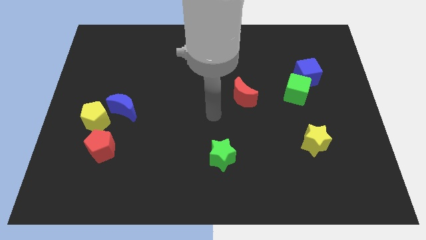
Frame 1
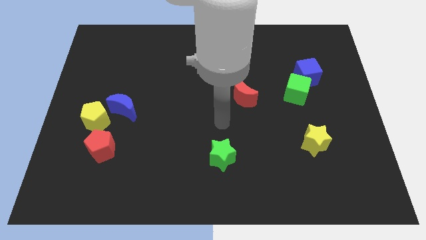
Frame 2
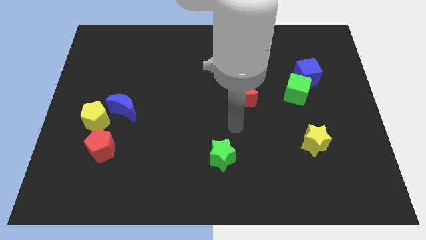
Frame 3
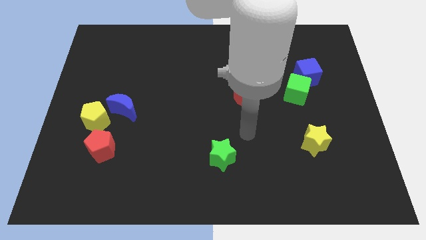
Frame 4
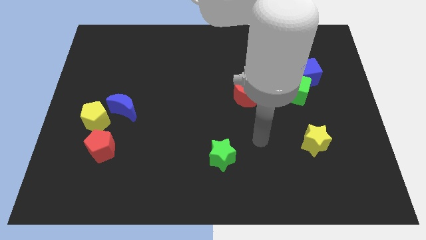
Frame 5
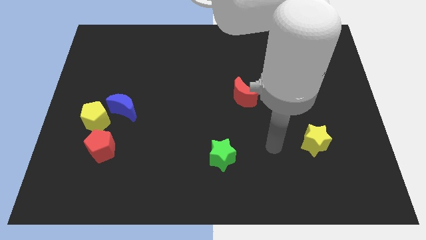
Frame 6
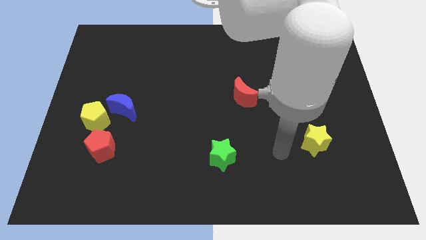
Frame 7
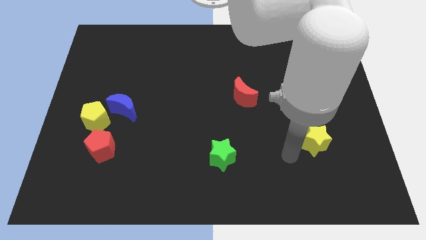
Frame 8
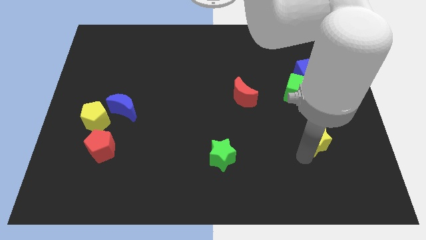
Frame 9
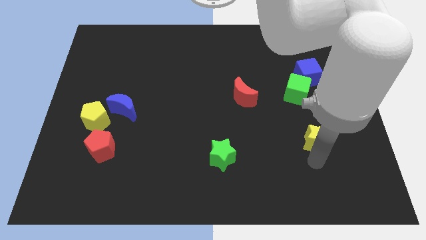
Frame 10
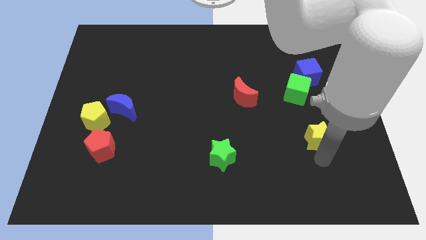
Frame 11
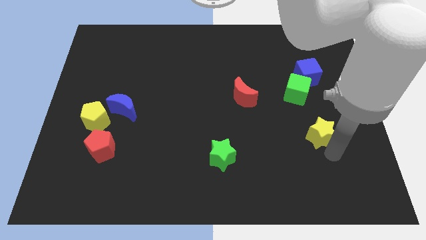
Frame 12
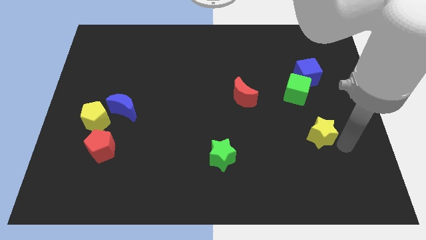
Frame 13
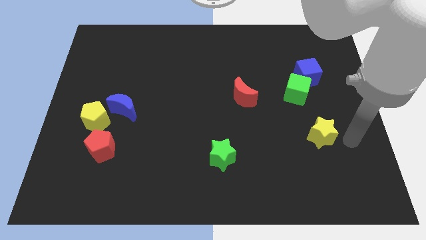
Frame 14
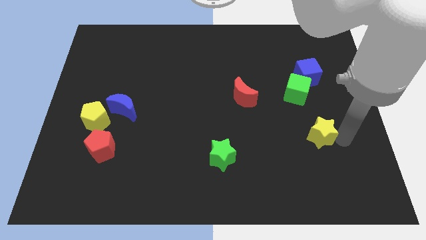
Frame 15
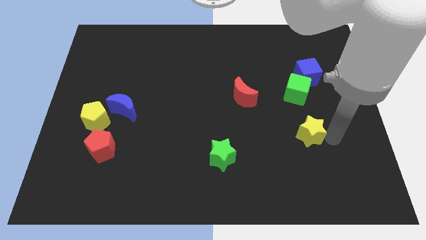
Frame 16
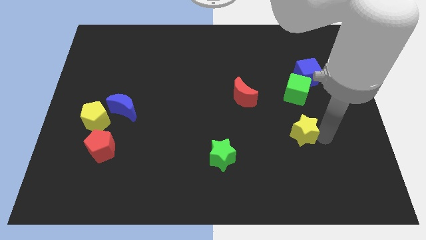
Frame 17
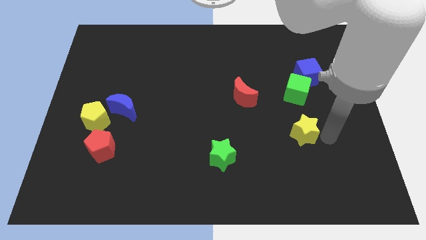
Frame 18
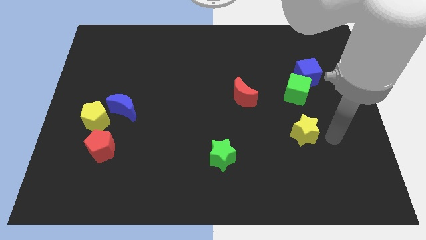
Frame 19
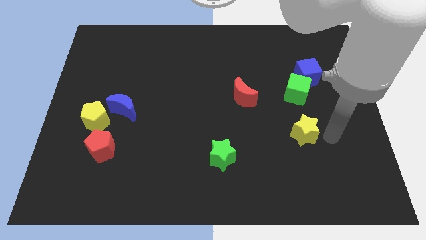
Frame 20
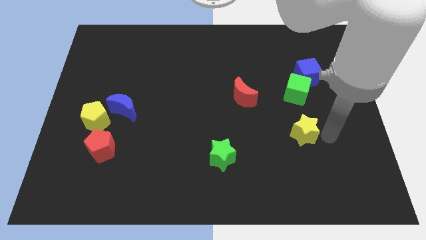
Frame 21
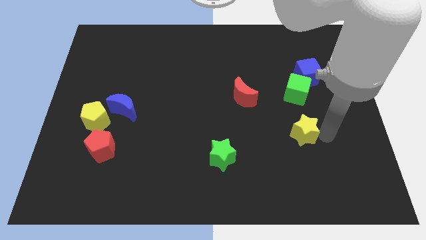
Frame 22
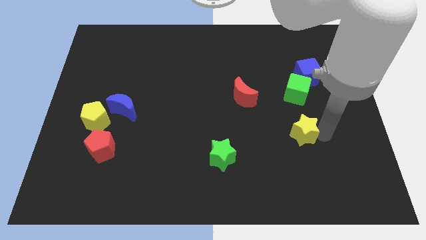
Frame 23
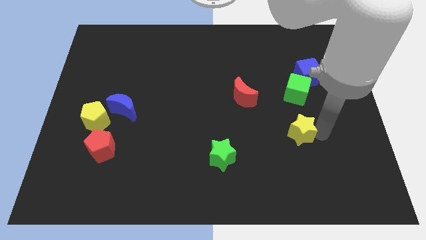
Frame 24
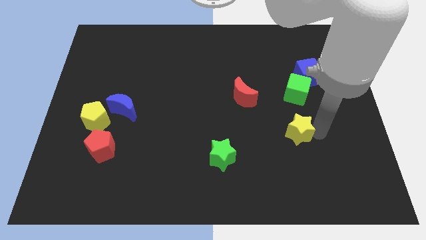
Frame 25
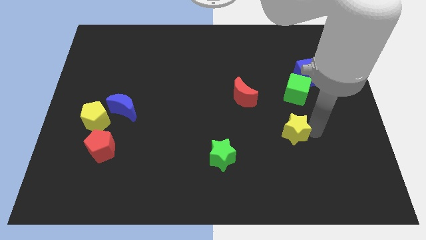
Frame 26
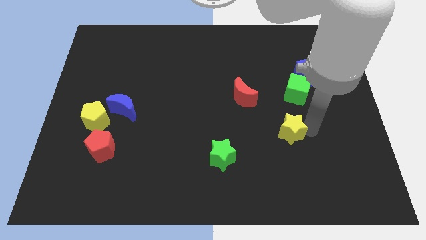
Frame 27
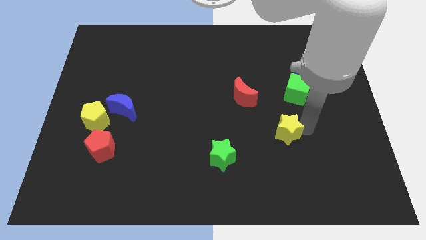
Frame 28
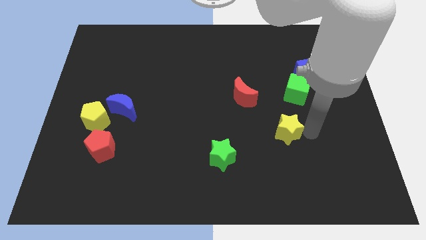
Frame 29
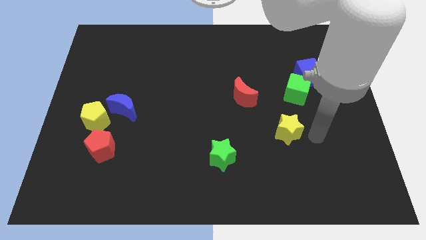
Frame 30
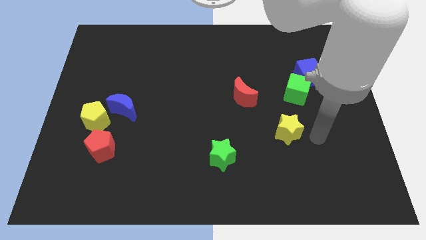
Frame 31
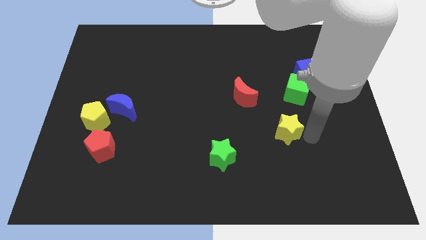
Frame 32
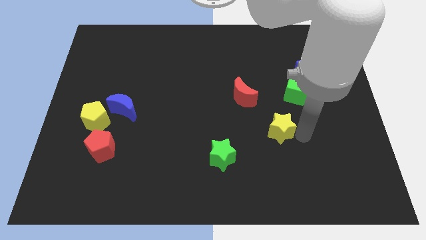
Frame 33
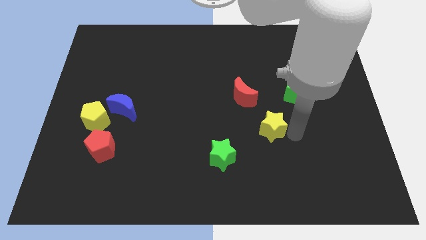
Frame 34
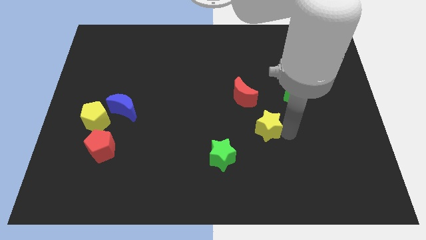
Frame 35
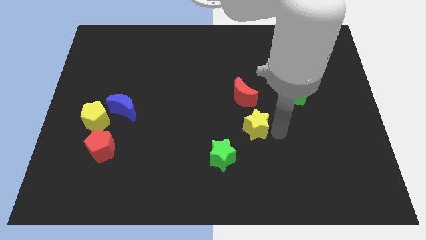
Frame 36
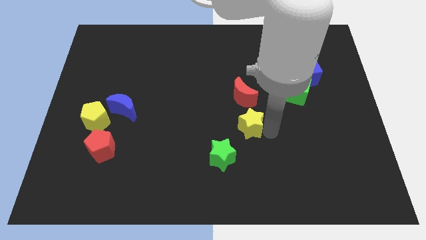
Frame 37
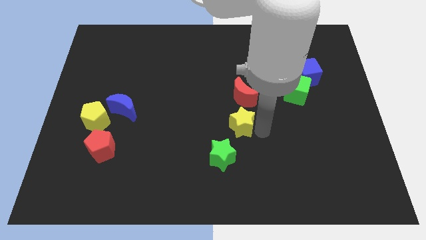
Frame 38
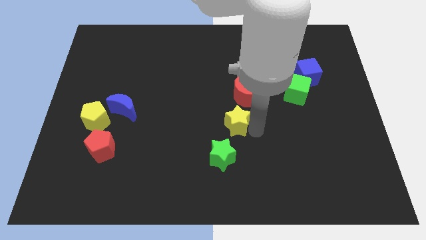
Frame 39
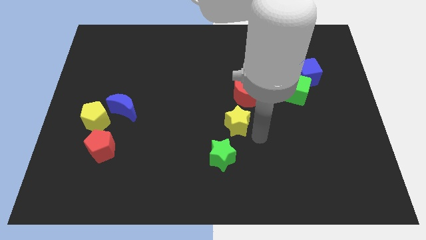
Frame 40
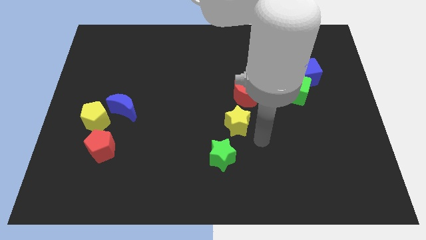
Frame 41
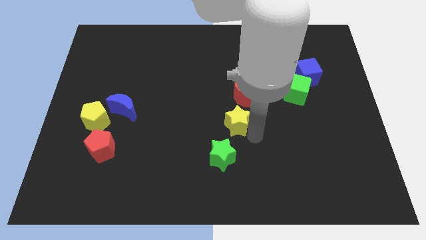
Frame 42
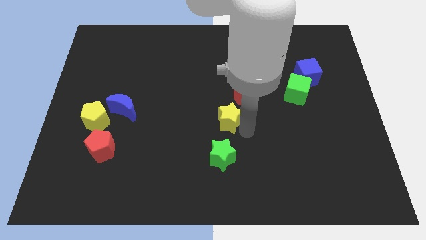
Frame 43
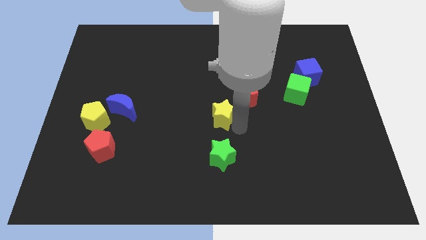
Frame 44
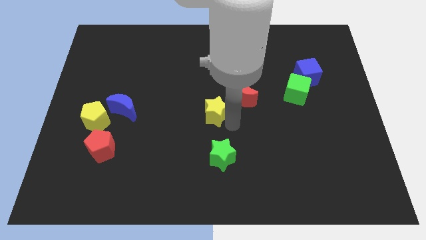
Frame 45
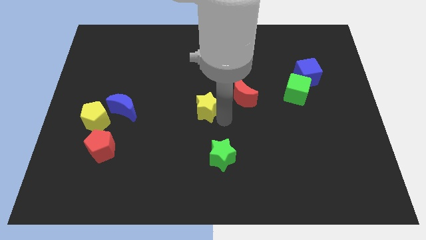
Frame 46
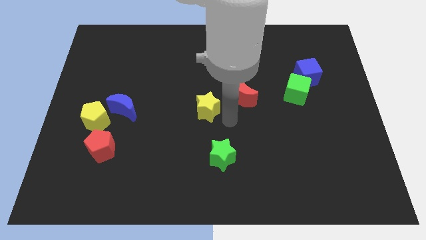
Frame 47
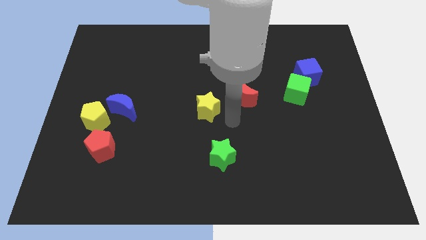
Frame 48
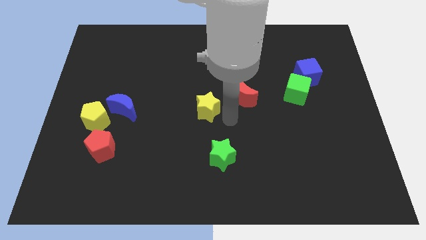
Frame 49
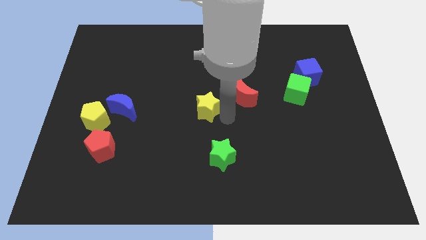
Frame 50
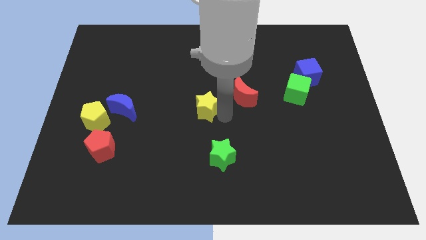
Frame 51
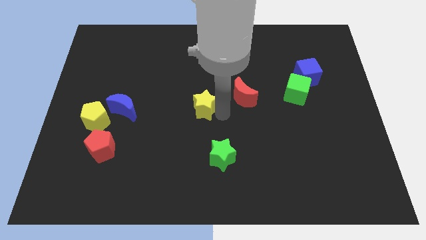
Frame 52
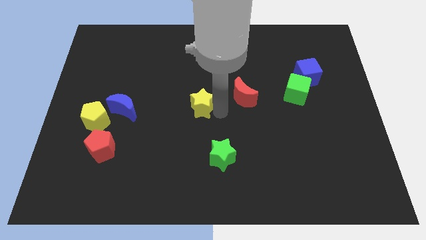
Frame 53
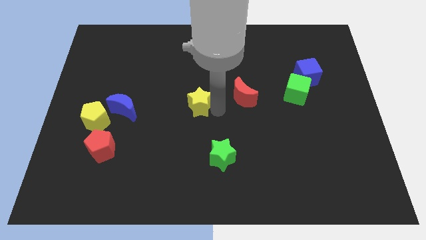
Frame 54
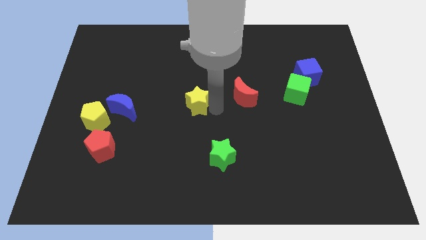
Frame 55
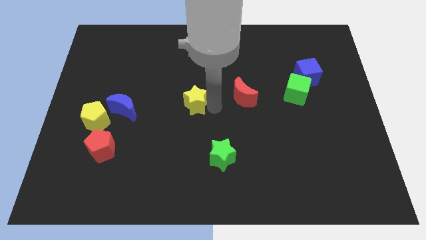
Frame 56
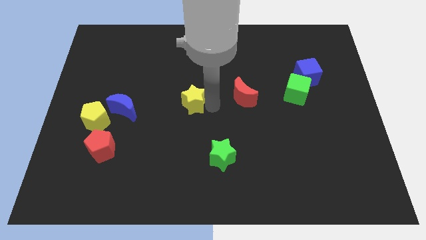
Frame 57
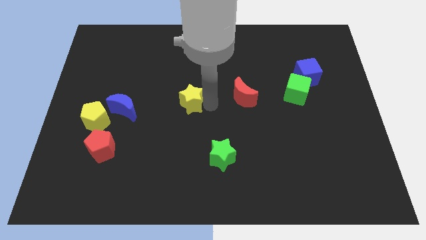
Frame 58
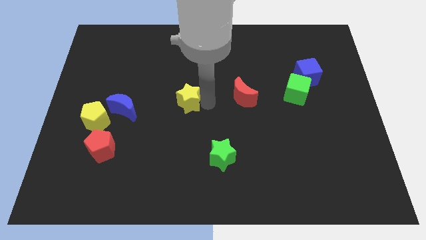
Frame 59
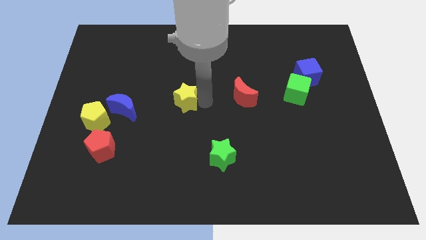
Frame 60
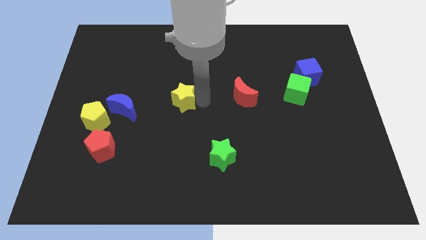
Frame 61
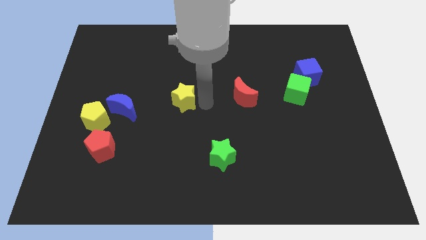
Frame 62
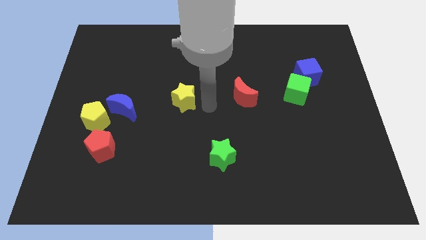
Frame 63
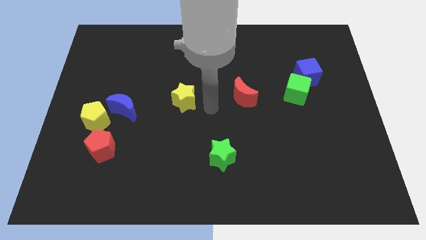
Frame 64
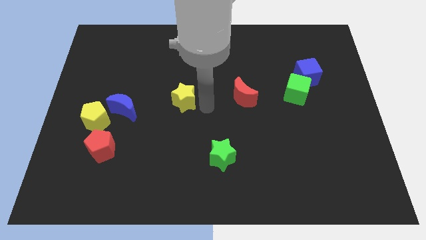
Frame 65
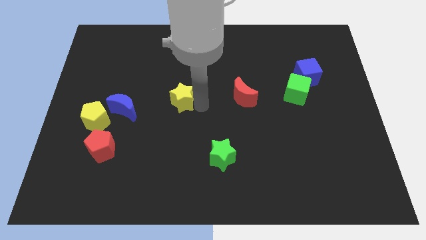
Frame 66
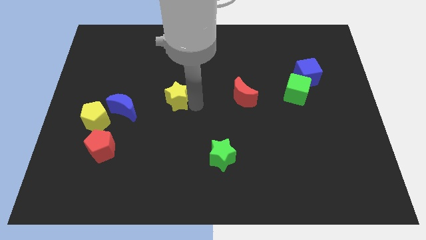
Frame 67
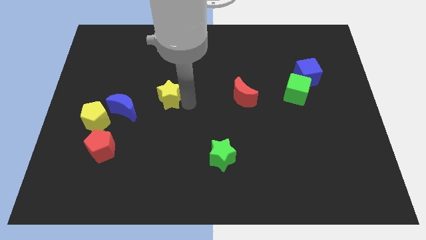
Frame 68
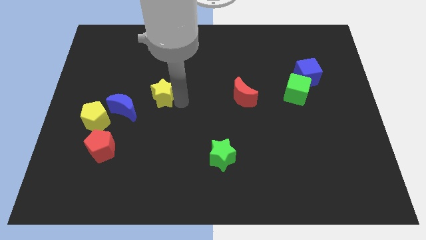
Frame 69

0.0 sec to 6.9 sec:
put the yellow star to the top right of the blue moon
